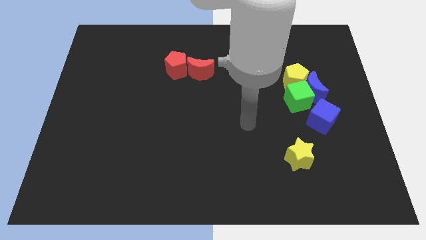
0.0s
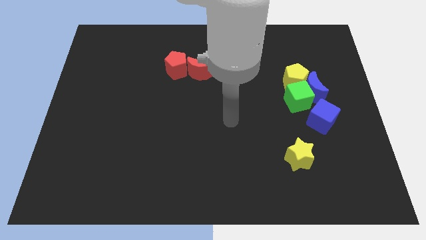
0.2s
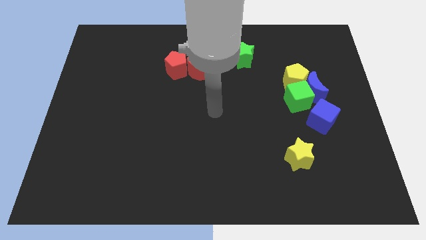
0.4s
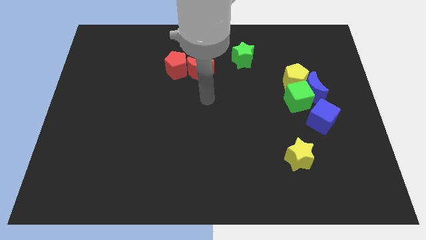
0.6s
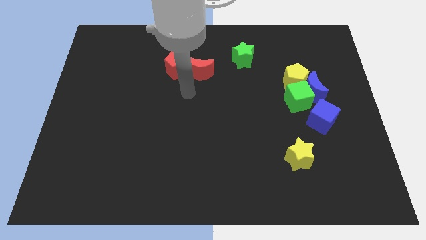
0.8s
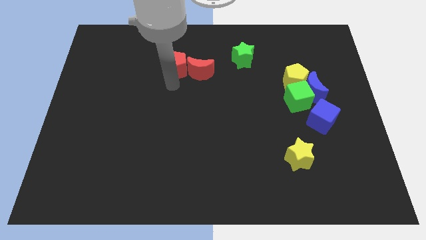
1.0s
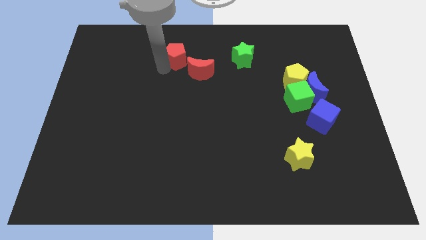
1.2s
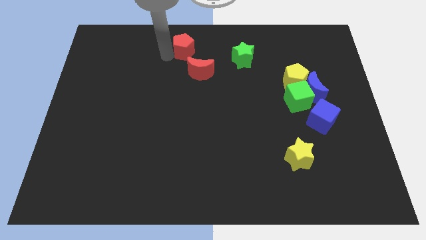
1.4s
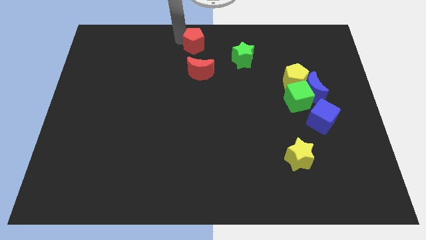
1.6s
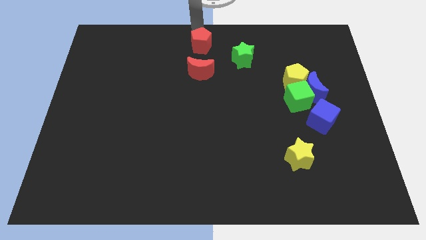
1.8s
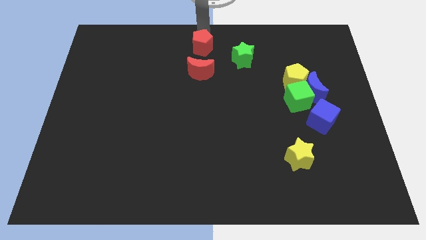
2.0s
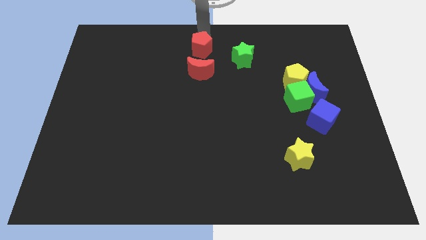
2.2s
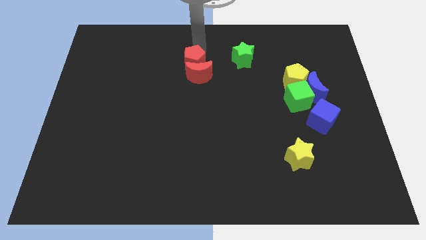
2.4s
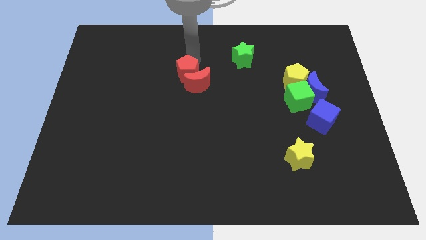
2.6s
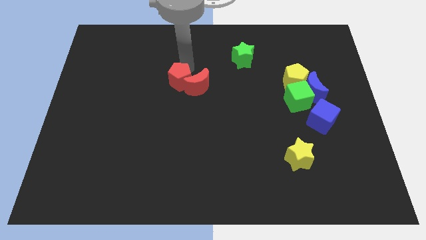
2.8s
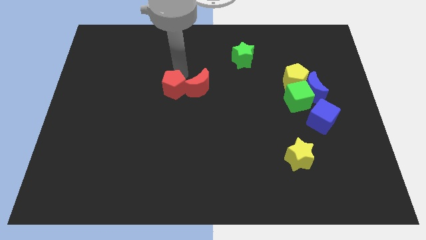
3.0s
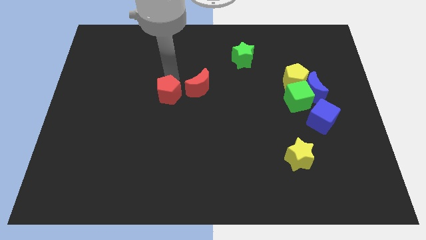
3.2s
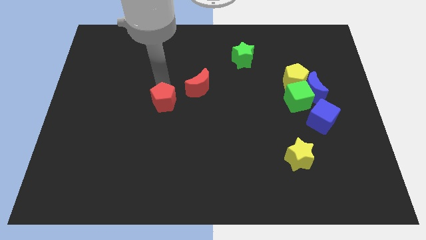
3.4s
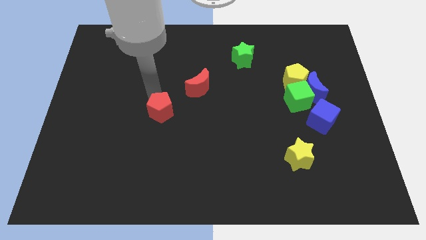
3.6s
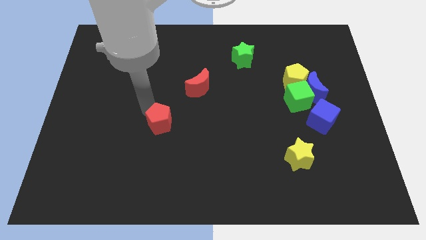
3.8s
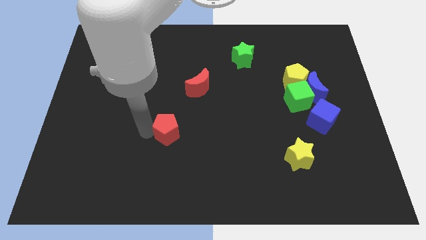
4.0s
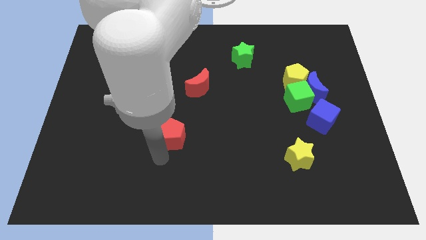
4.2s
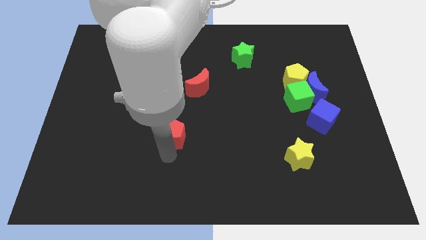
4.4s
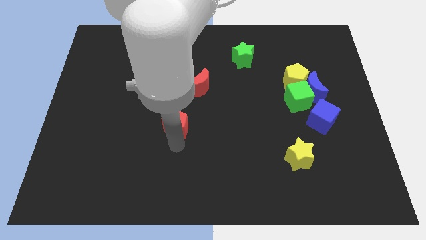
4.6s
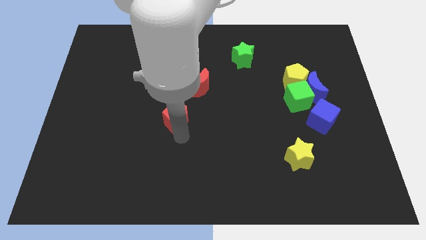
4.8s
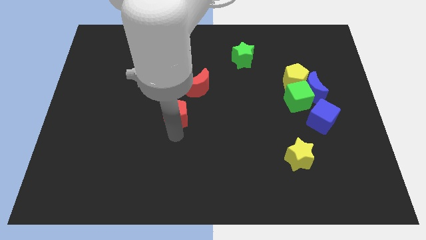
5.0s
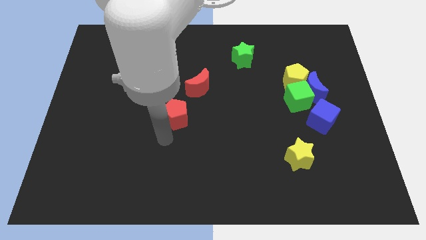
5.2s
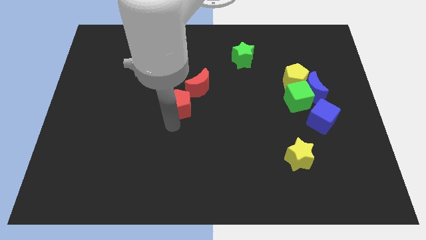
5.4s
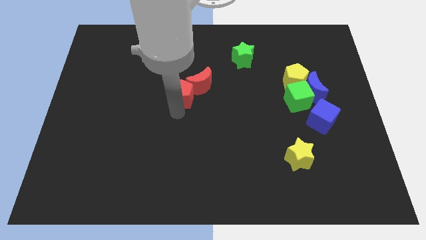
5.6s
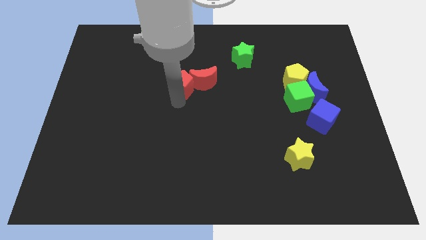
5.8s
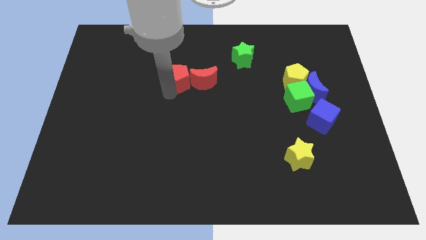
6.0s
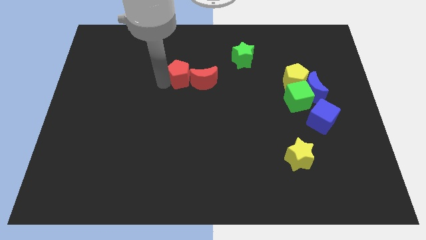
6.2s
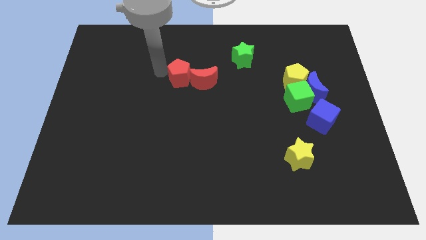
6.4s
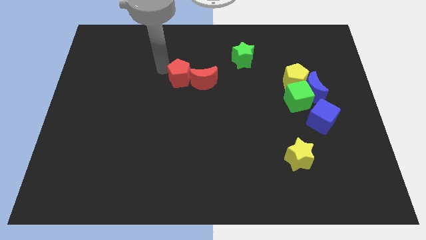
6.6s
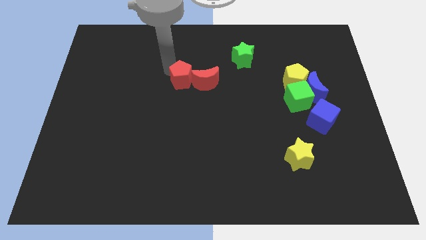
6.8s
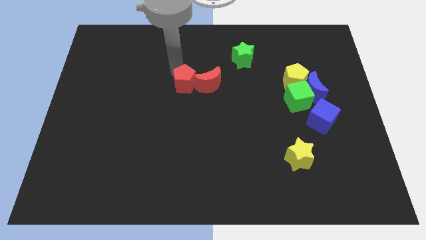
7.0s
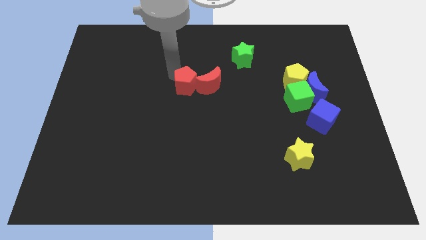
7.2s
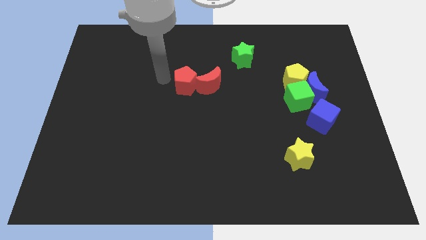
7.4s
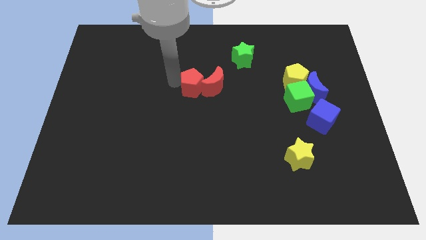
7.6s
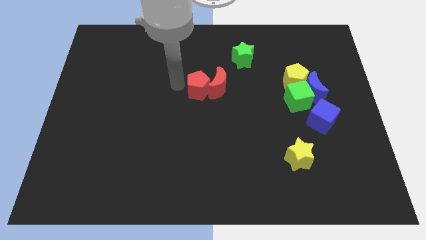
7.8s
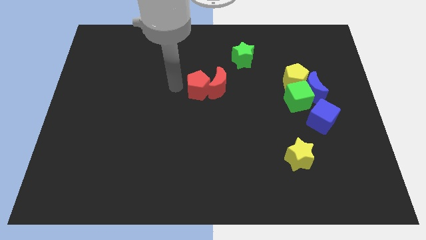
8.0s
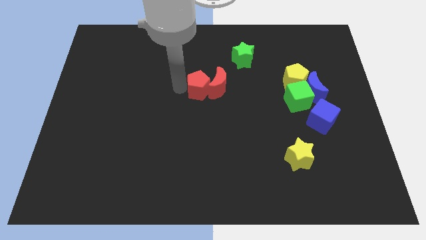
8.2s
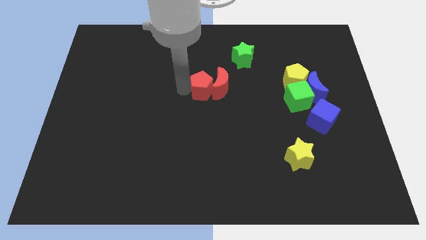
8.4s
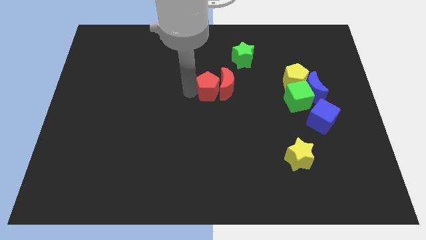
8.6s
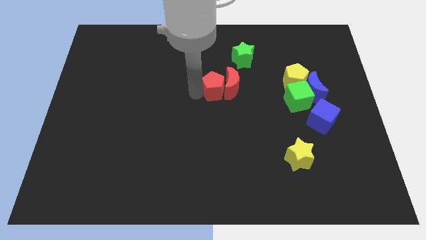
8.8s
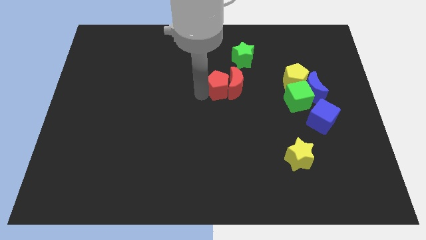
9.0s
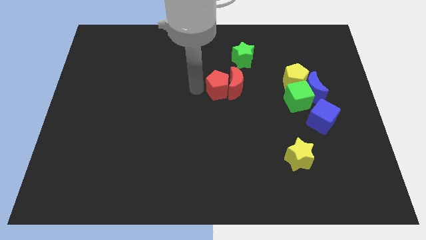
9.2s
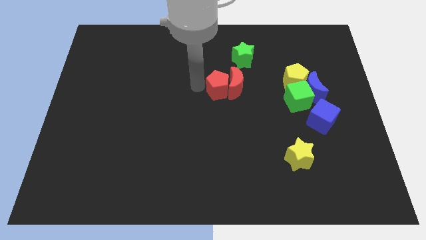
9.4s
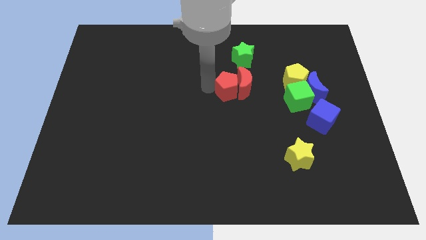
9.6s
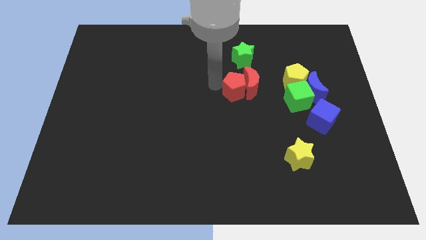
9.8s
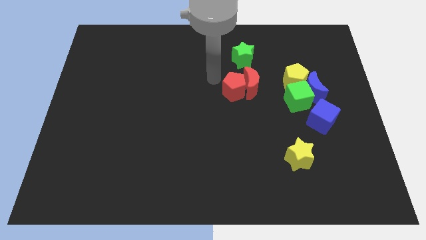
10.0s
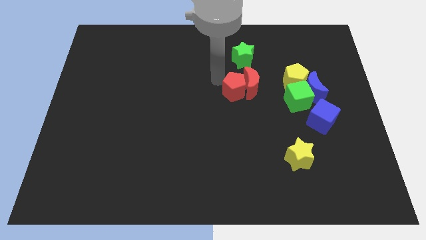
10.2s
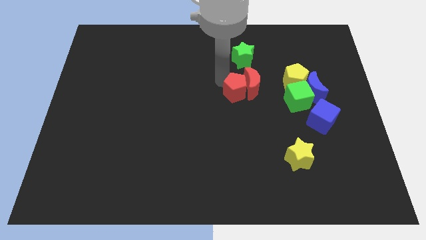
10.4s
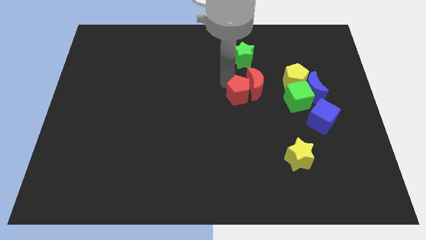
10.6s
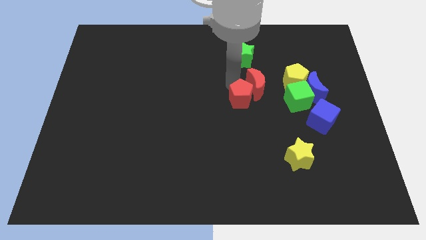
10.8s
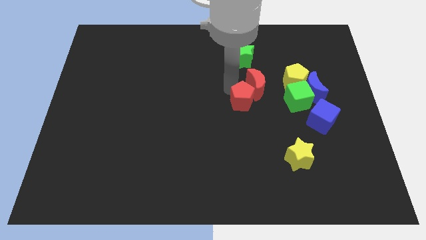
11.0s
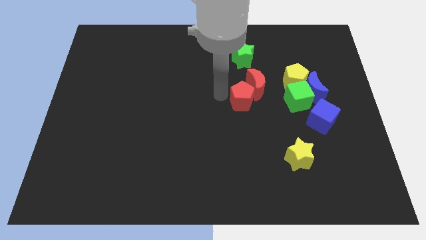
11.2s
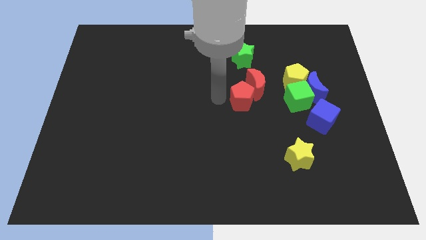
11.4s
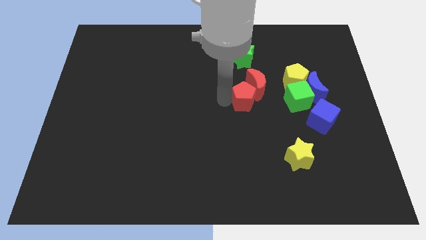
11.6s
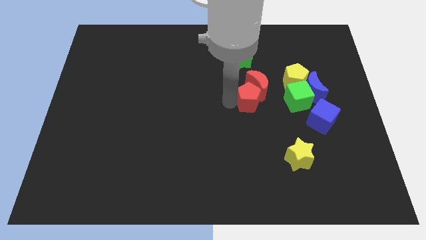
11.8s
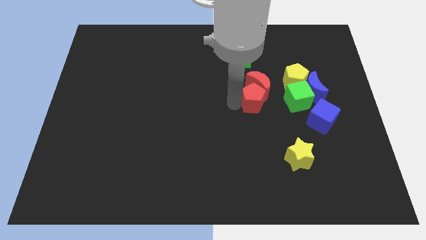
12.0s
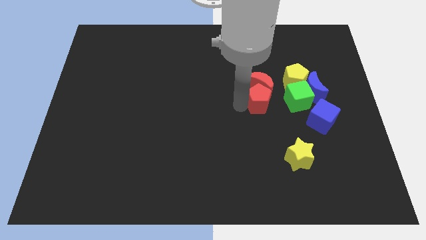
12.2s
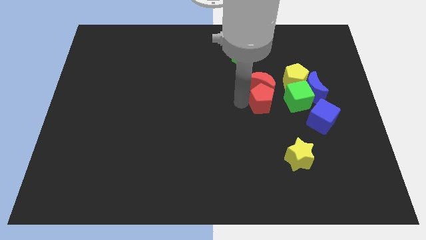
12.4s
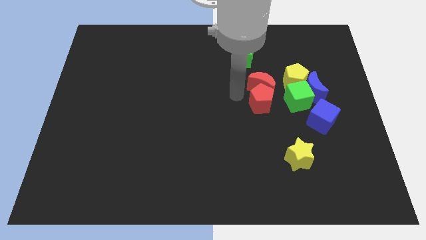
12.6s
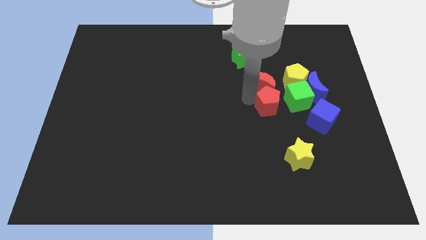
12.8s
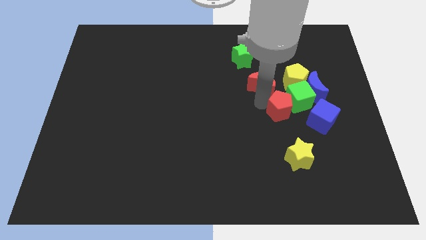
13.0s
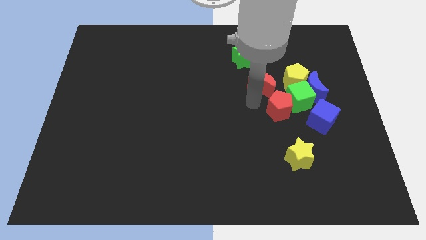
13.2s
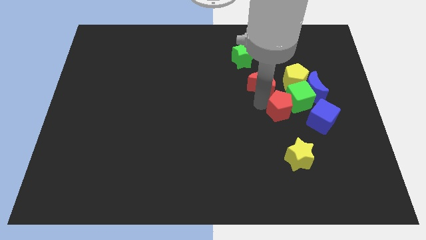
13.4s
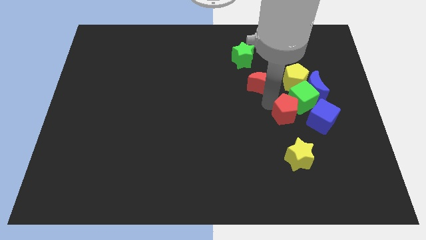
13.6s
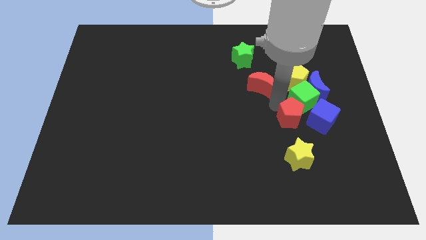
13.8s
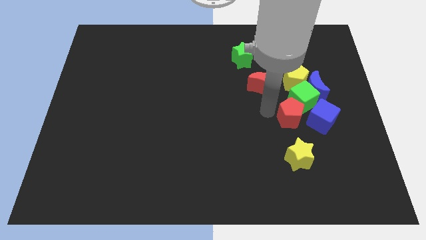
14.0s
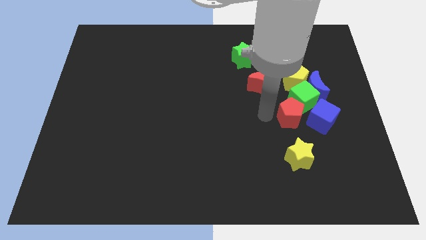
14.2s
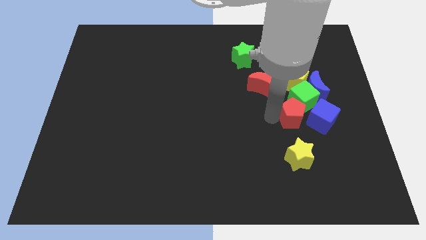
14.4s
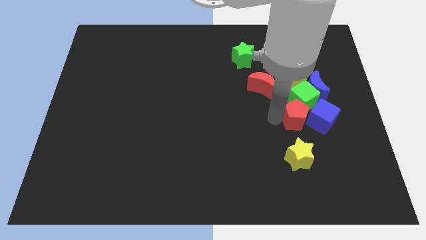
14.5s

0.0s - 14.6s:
move the red pentagon towards the blue cube

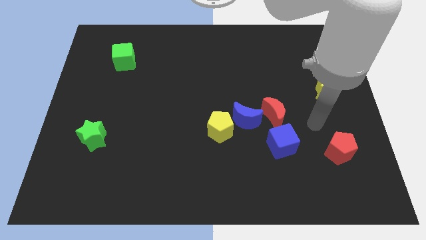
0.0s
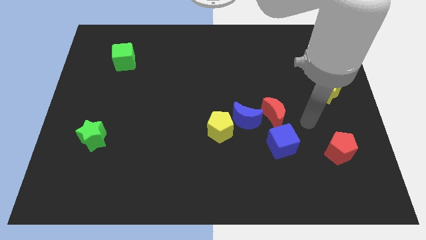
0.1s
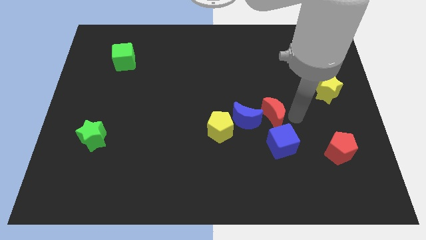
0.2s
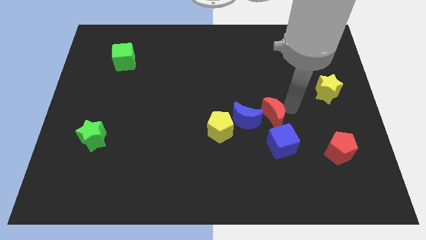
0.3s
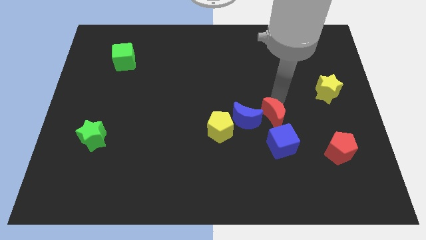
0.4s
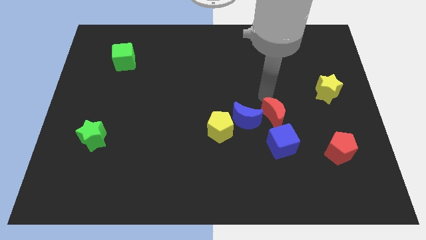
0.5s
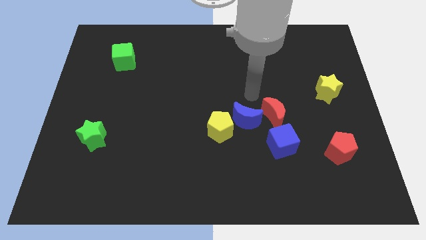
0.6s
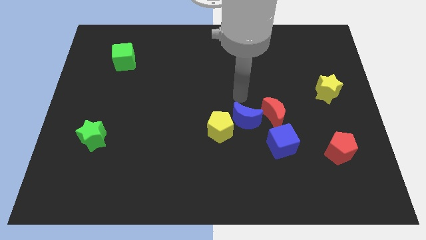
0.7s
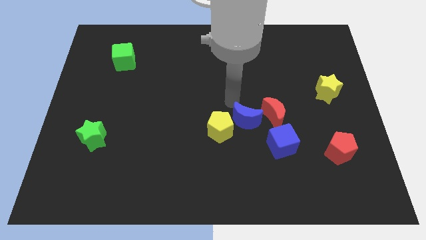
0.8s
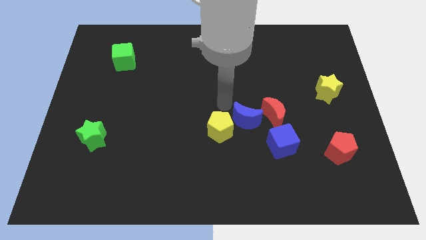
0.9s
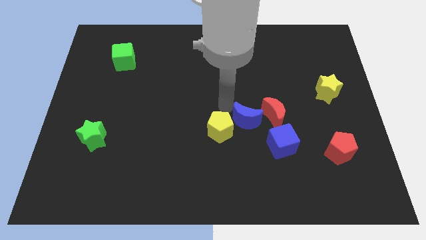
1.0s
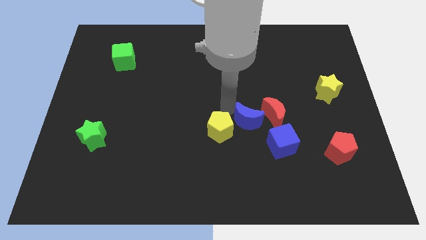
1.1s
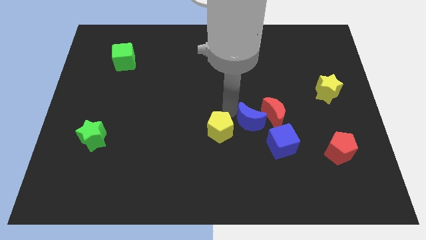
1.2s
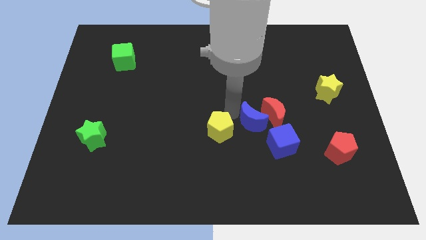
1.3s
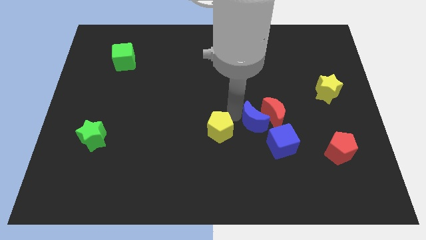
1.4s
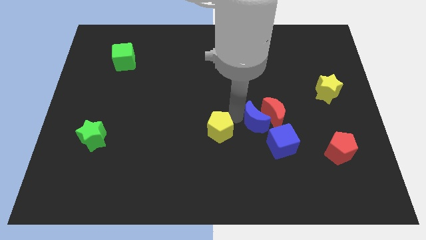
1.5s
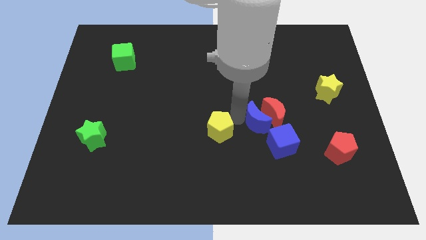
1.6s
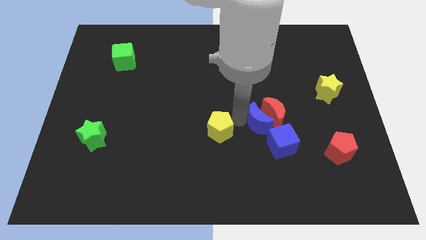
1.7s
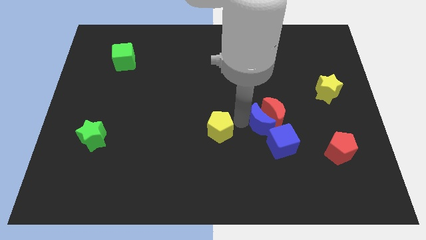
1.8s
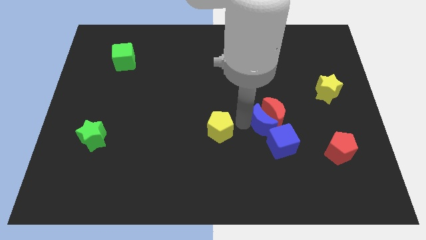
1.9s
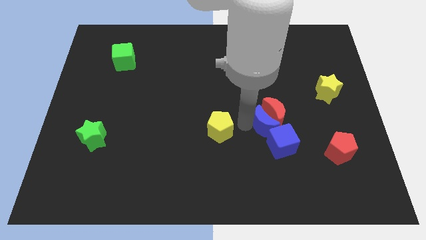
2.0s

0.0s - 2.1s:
slide the blue moon towards the blue cube
